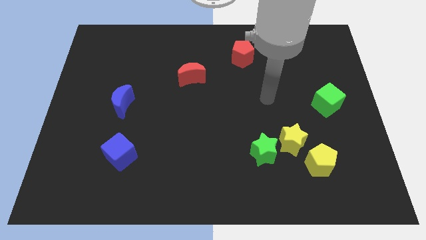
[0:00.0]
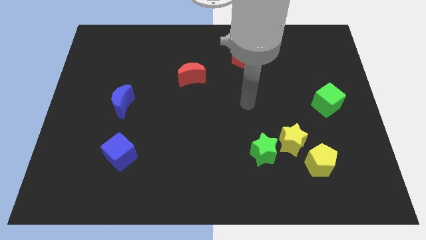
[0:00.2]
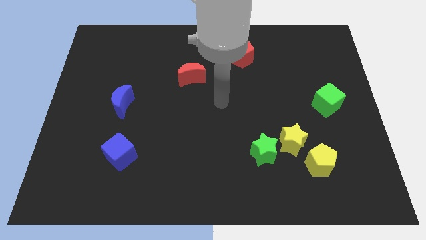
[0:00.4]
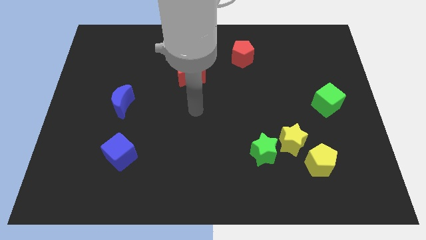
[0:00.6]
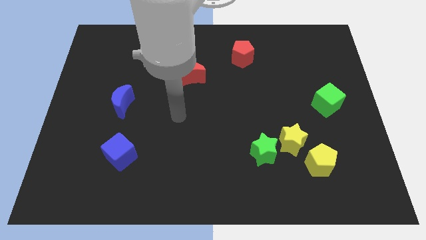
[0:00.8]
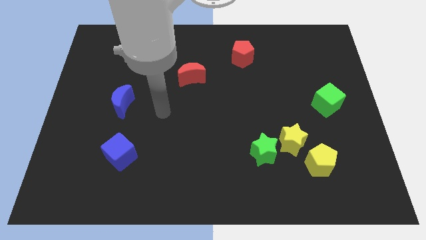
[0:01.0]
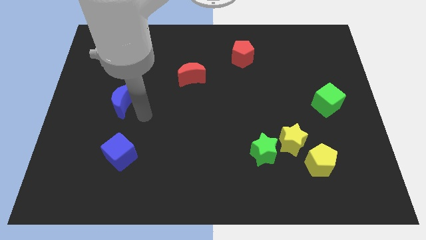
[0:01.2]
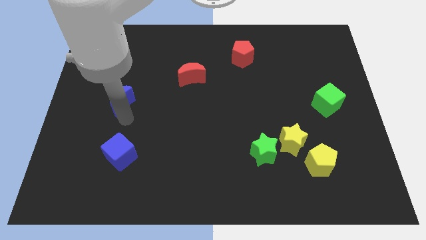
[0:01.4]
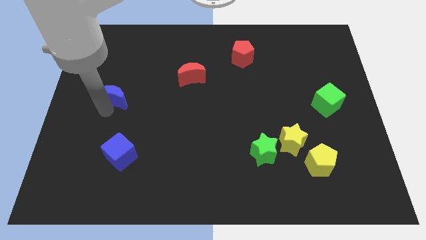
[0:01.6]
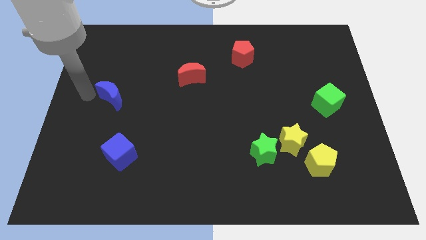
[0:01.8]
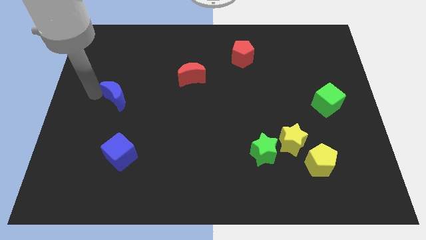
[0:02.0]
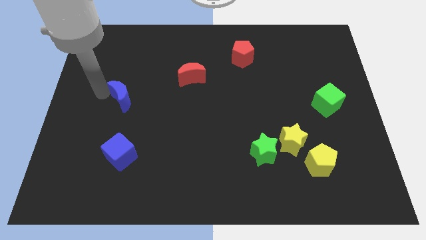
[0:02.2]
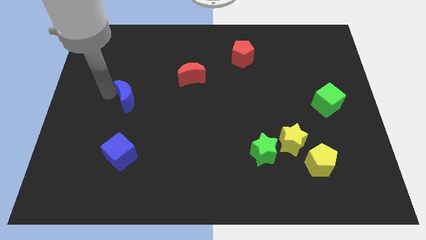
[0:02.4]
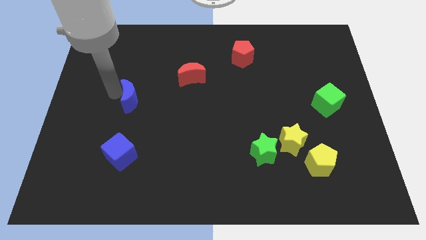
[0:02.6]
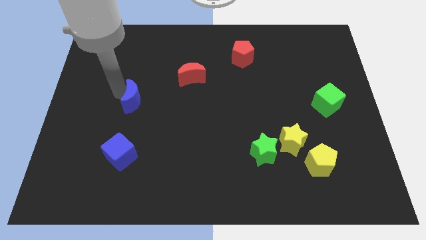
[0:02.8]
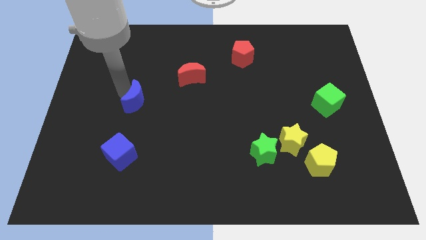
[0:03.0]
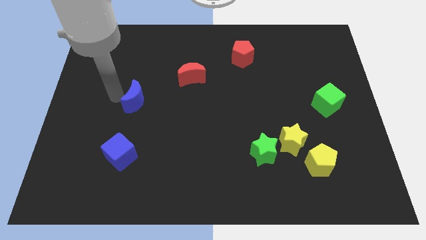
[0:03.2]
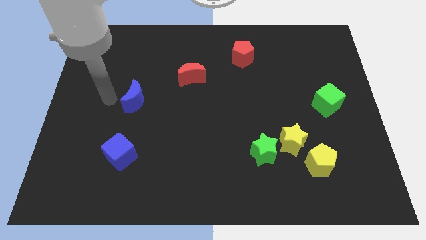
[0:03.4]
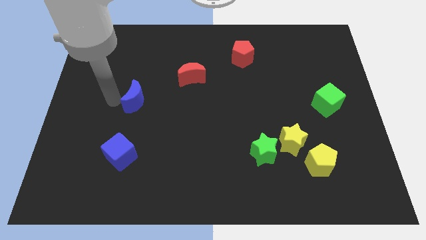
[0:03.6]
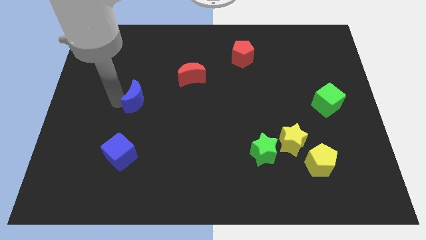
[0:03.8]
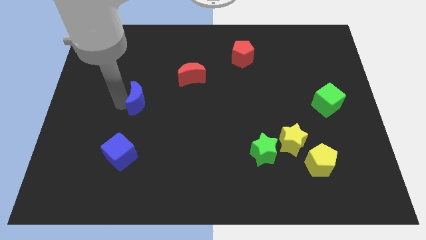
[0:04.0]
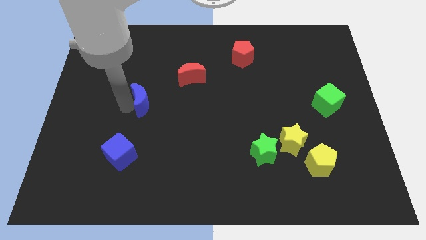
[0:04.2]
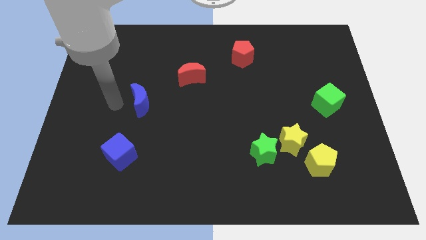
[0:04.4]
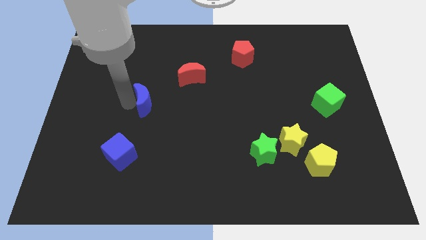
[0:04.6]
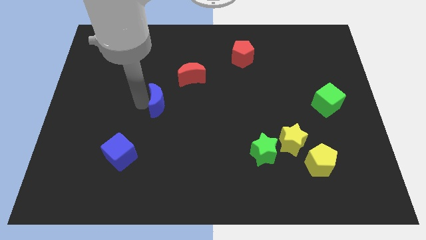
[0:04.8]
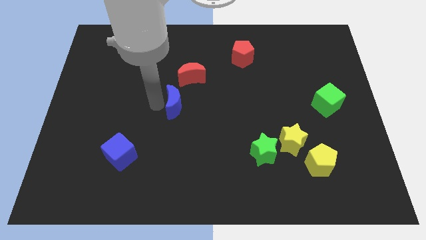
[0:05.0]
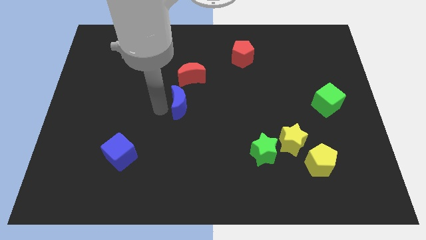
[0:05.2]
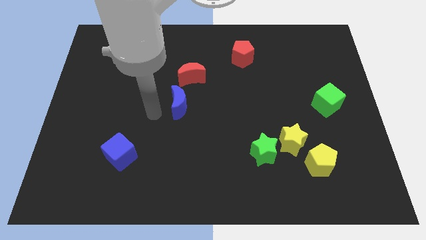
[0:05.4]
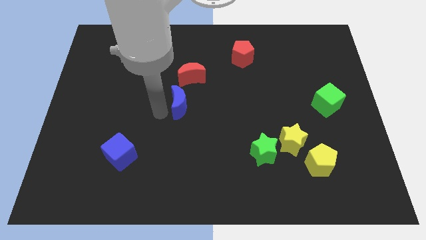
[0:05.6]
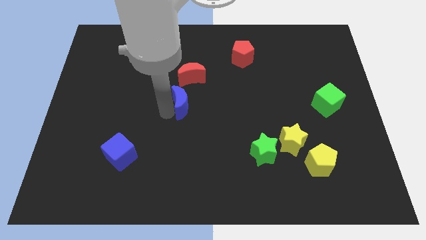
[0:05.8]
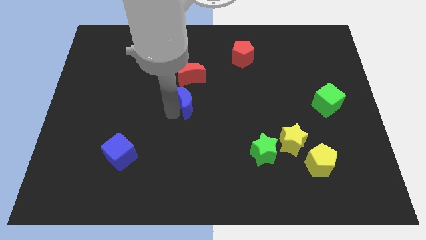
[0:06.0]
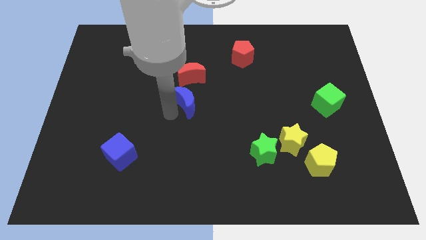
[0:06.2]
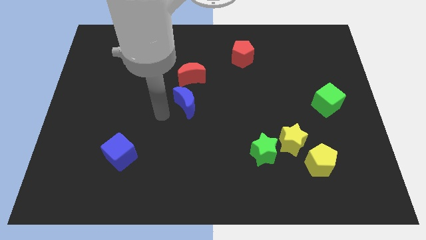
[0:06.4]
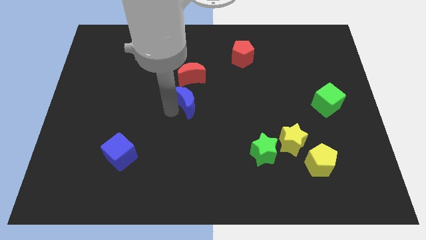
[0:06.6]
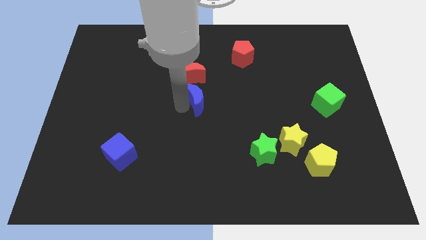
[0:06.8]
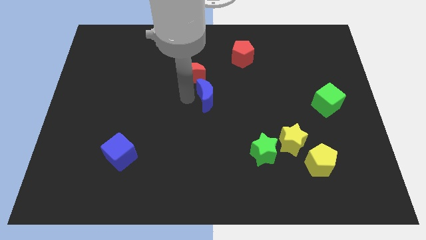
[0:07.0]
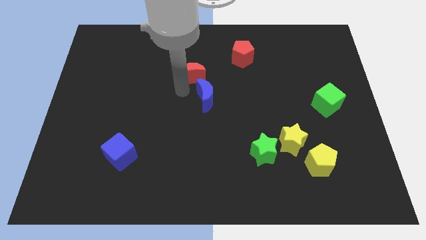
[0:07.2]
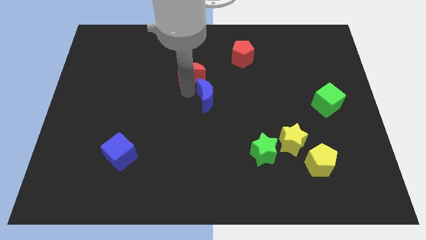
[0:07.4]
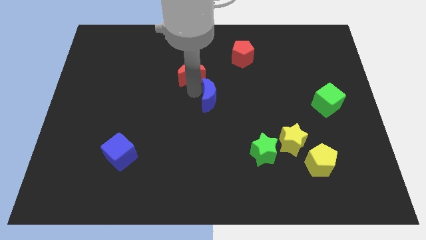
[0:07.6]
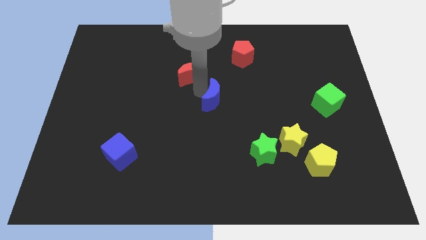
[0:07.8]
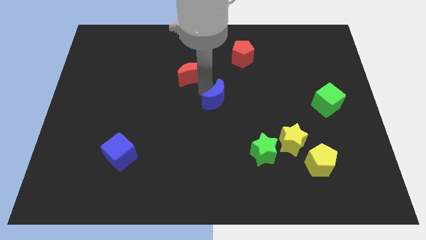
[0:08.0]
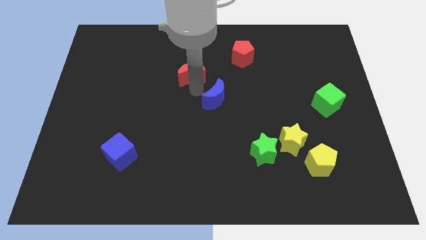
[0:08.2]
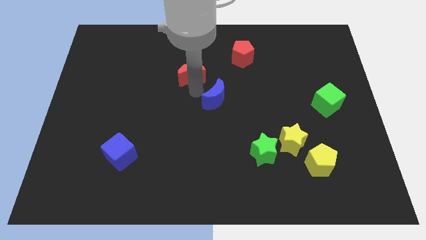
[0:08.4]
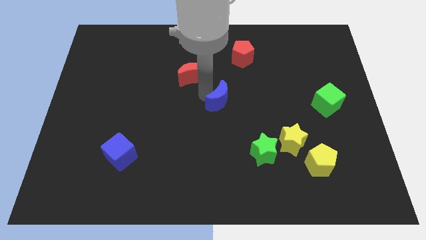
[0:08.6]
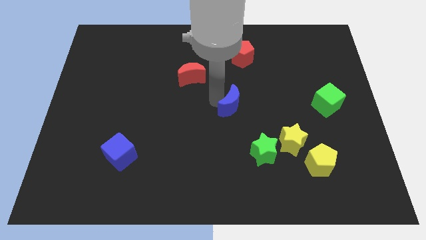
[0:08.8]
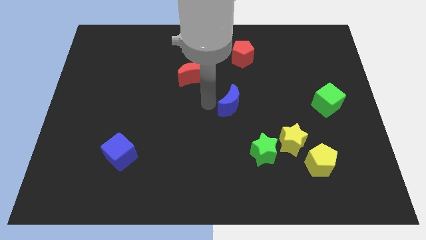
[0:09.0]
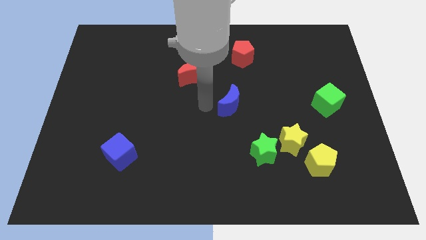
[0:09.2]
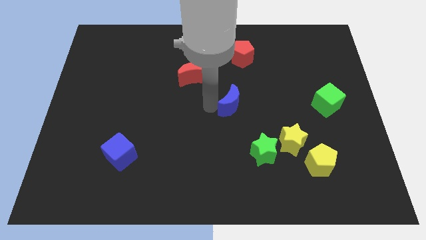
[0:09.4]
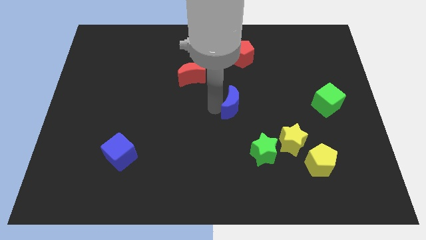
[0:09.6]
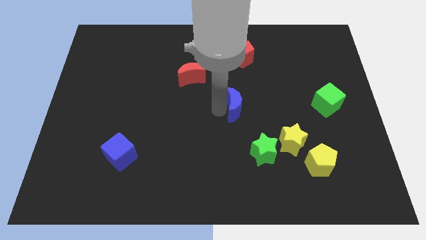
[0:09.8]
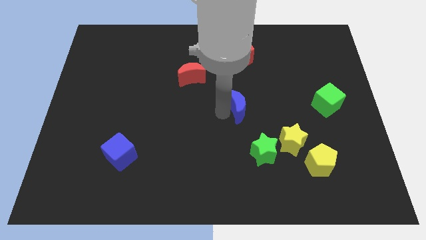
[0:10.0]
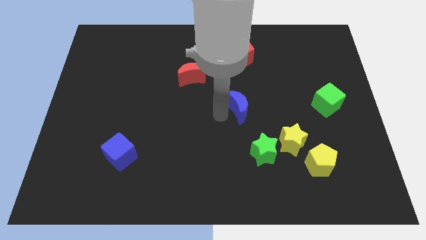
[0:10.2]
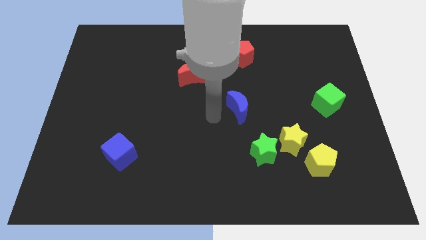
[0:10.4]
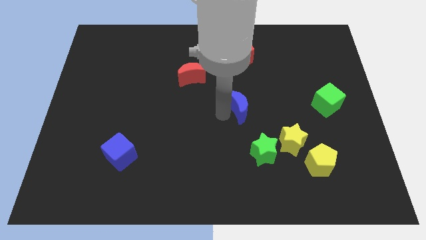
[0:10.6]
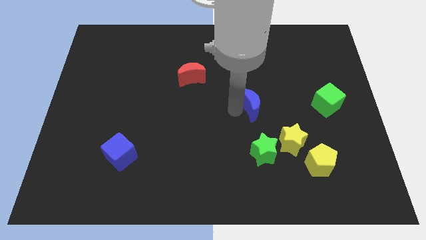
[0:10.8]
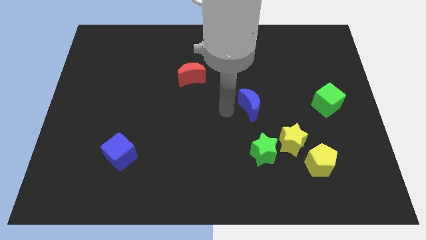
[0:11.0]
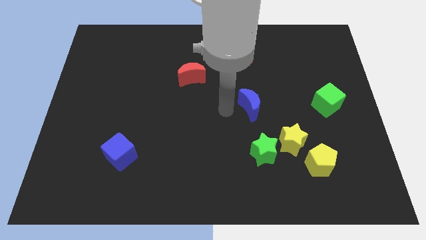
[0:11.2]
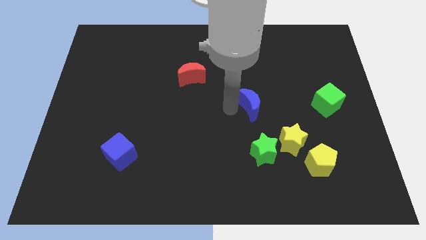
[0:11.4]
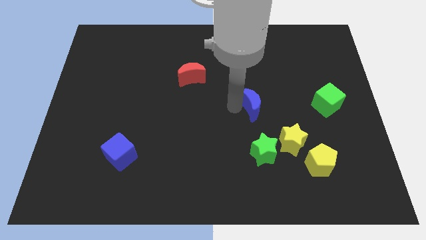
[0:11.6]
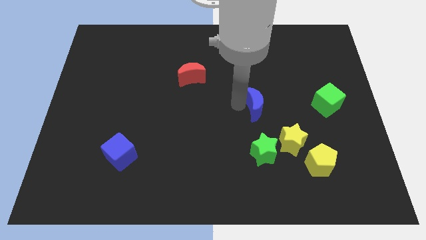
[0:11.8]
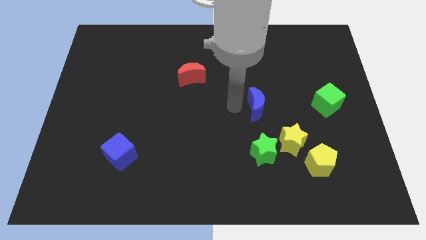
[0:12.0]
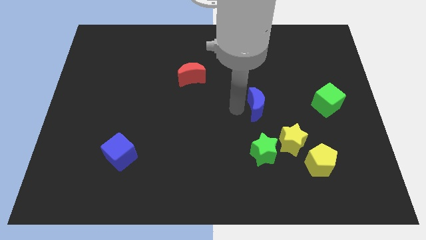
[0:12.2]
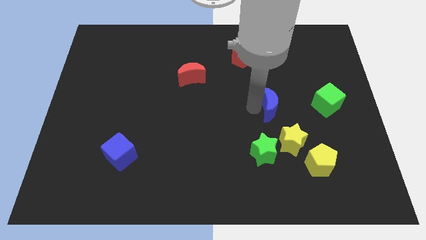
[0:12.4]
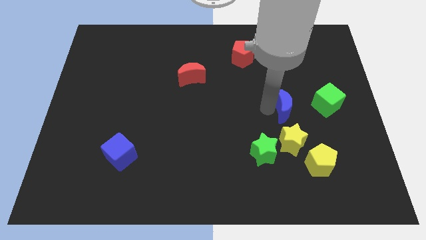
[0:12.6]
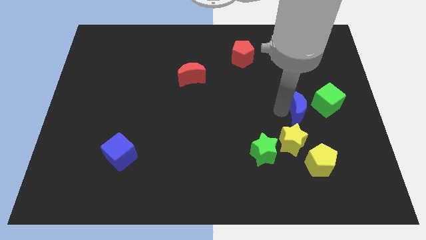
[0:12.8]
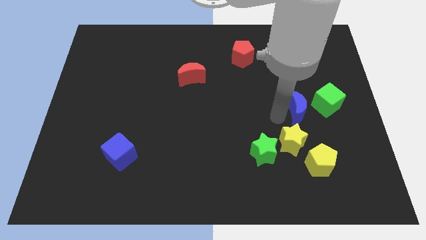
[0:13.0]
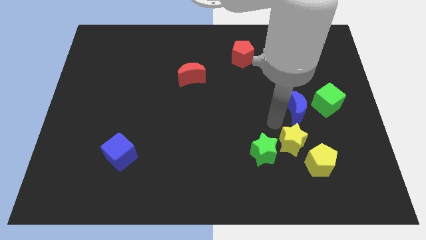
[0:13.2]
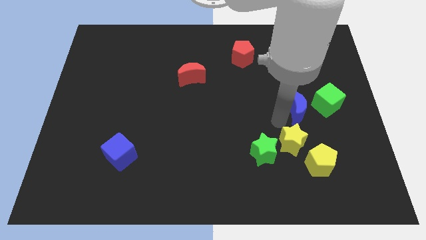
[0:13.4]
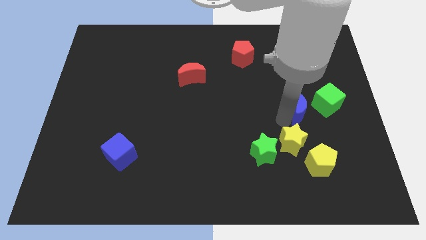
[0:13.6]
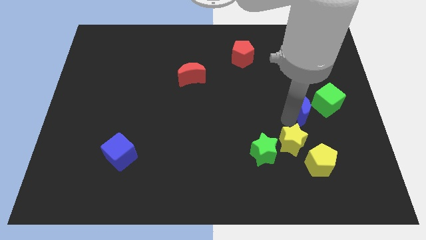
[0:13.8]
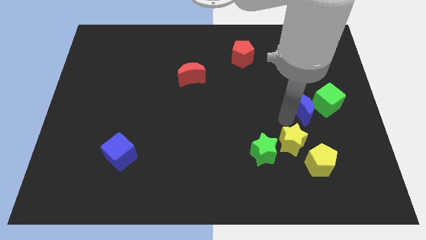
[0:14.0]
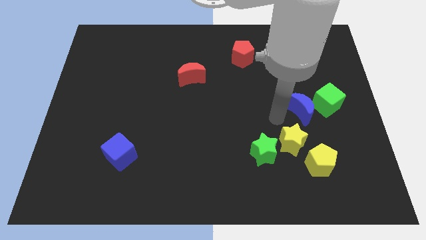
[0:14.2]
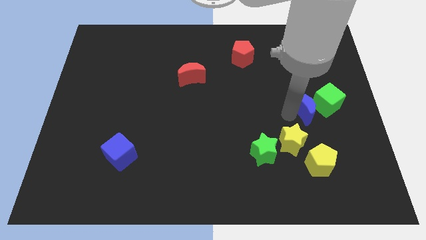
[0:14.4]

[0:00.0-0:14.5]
slide the blue moon to the green cube
